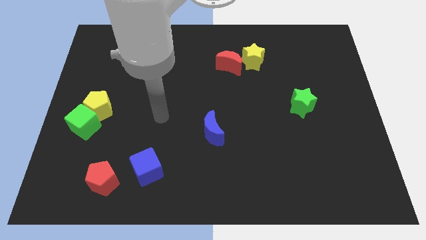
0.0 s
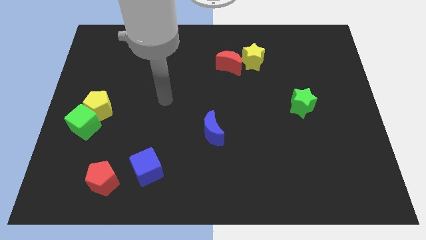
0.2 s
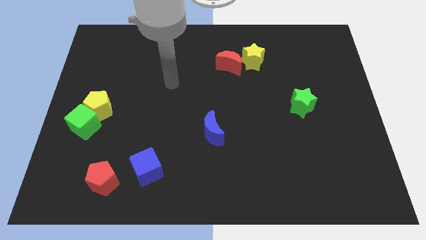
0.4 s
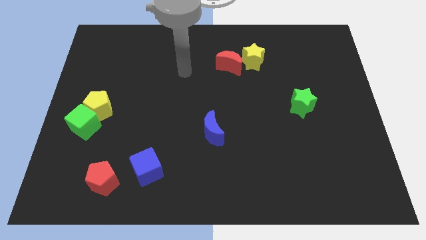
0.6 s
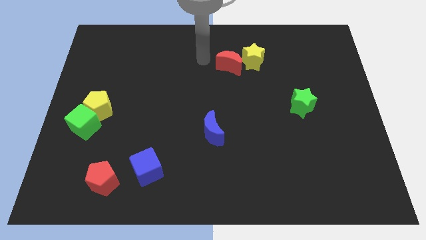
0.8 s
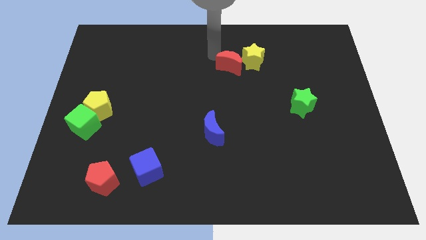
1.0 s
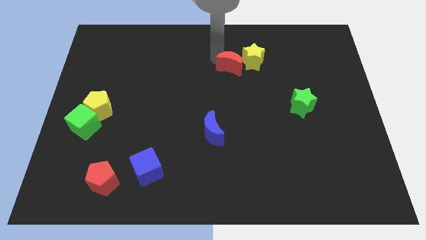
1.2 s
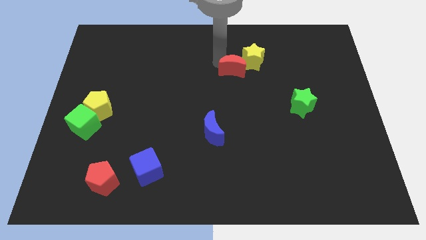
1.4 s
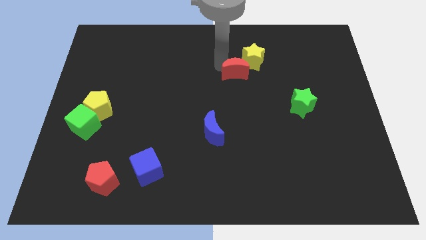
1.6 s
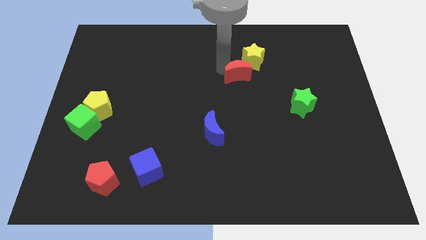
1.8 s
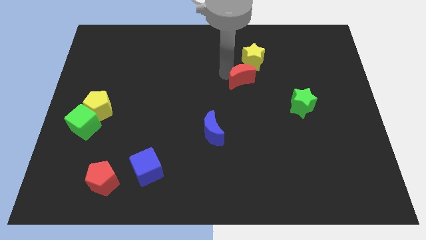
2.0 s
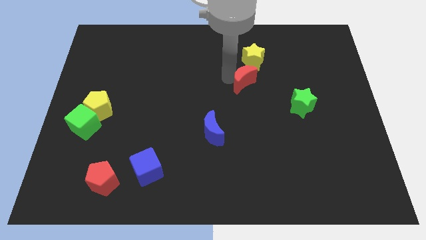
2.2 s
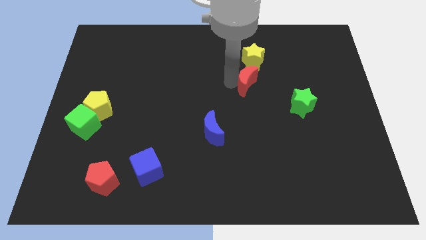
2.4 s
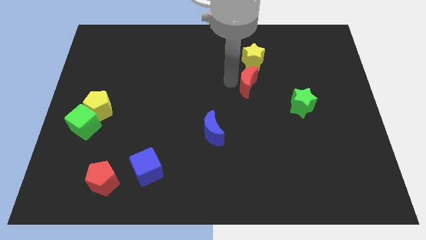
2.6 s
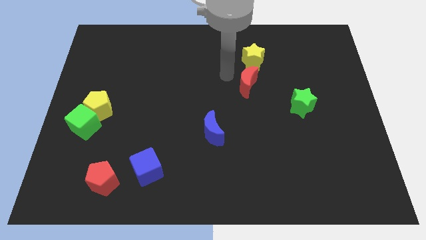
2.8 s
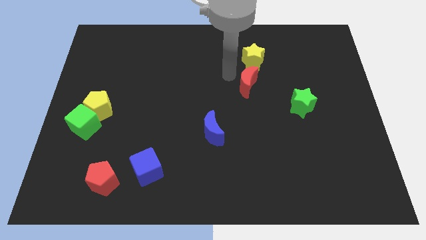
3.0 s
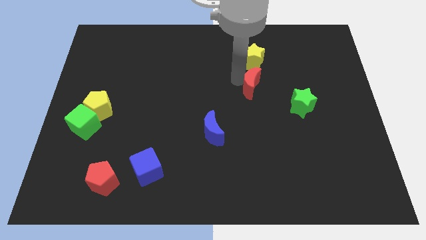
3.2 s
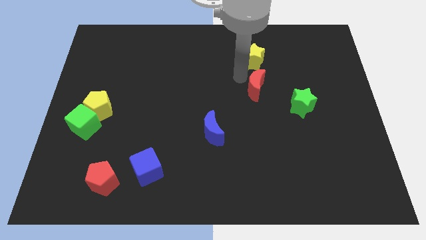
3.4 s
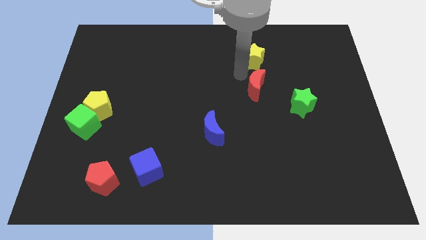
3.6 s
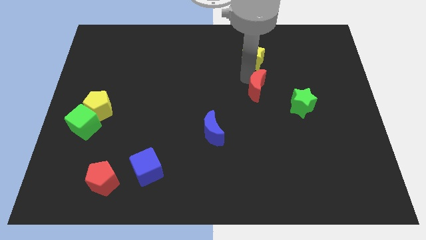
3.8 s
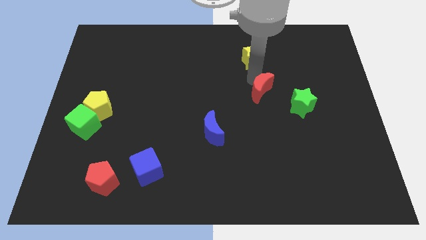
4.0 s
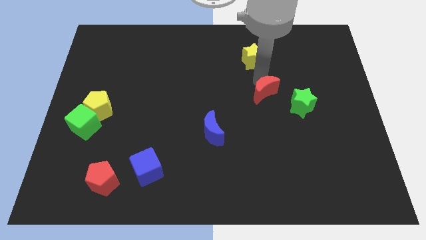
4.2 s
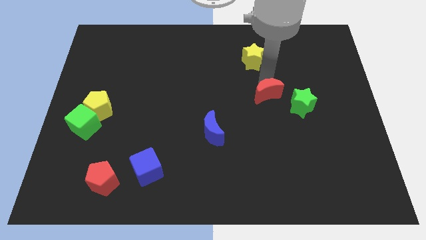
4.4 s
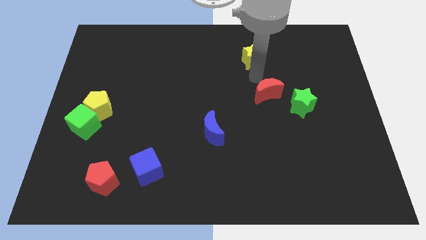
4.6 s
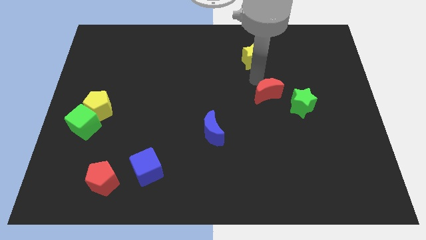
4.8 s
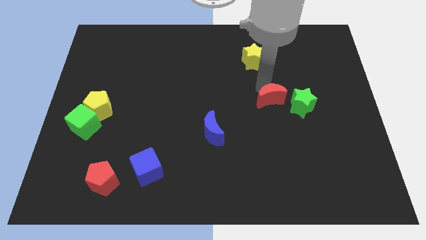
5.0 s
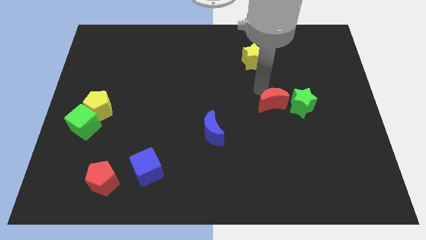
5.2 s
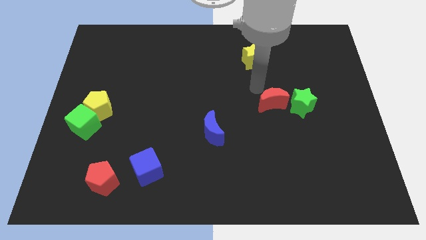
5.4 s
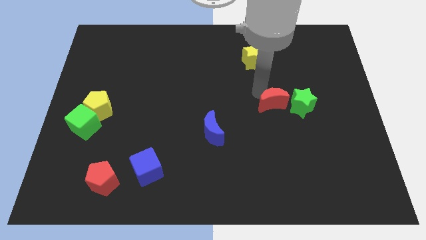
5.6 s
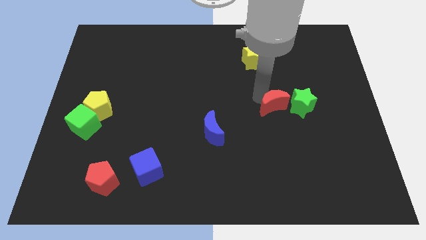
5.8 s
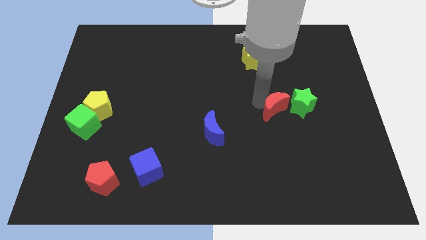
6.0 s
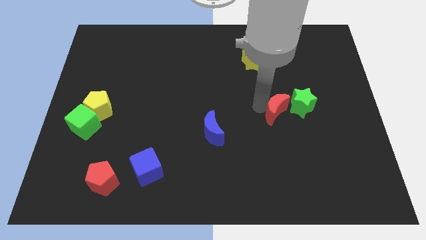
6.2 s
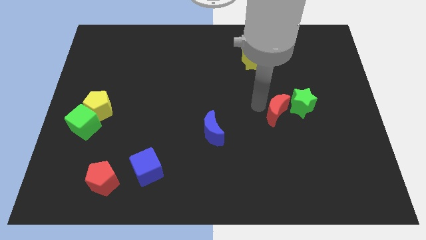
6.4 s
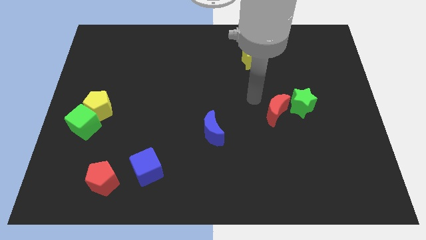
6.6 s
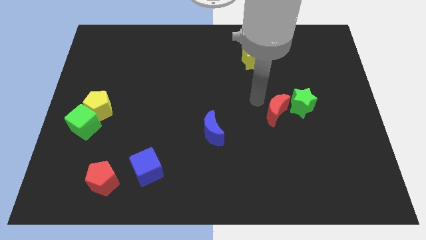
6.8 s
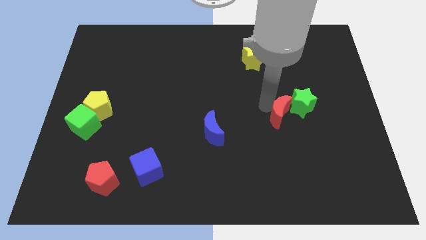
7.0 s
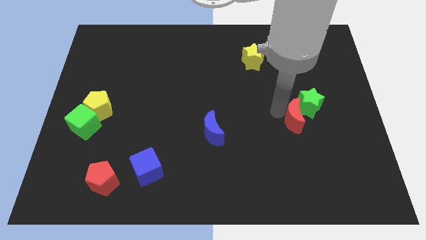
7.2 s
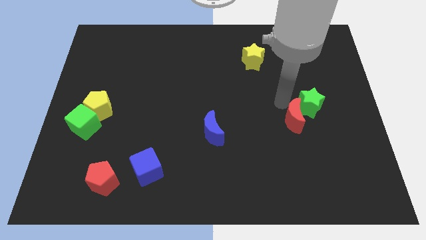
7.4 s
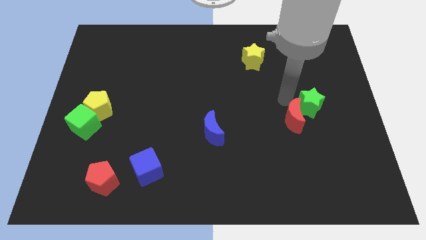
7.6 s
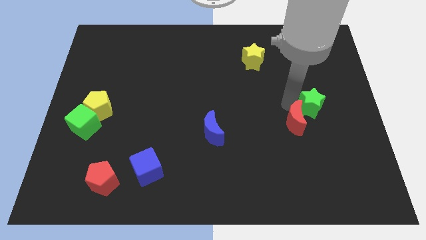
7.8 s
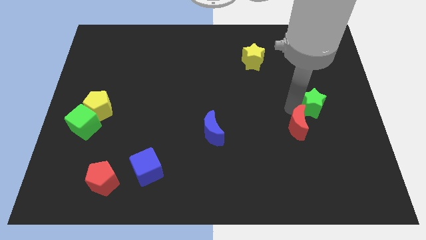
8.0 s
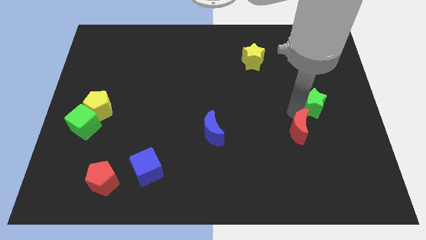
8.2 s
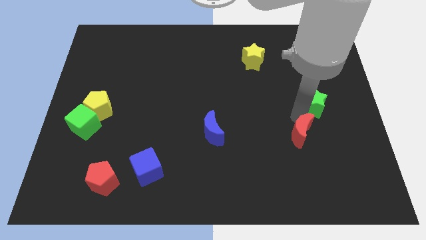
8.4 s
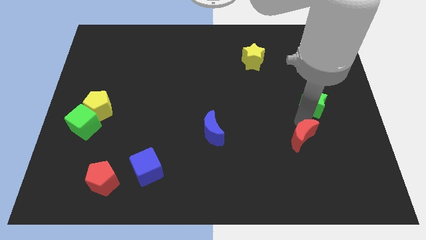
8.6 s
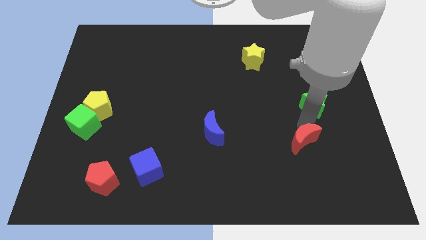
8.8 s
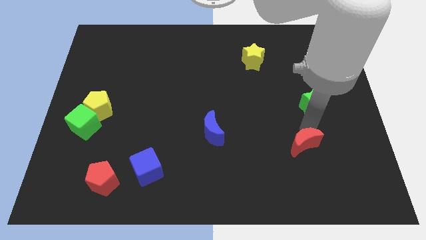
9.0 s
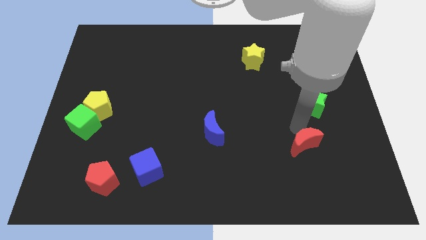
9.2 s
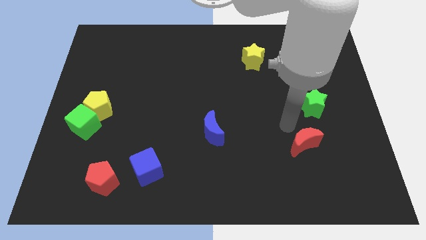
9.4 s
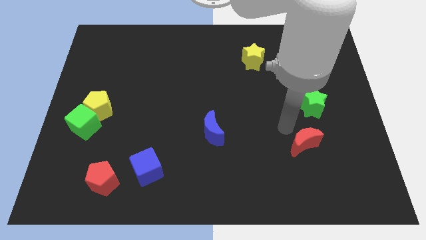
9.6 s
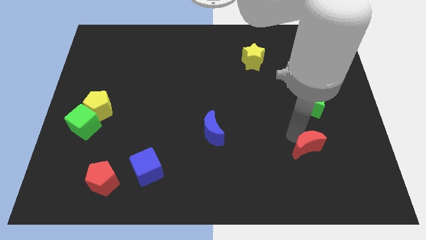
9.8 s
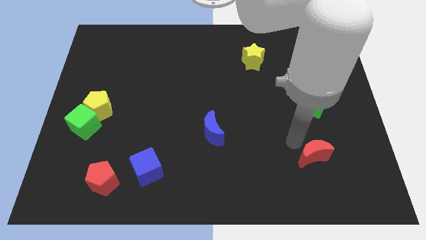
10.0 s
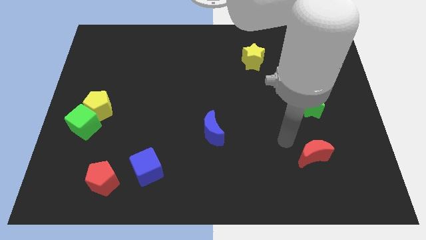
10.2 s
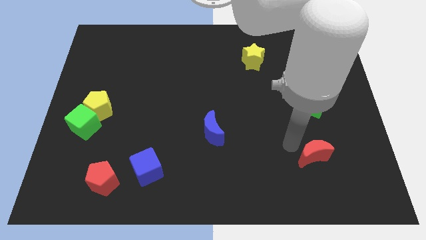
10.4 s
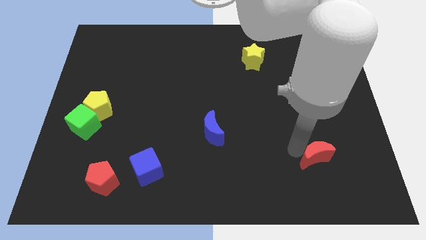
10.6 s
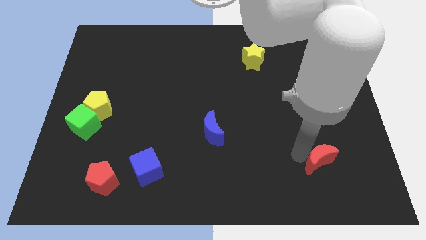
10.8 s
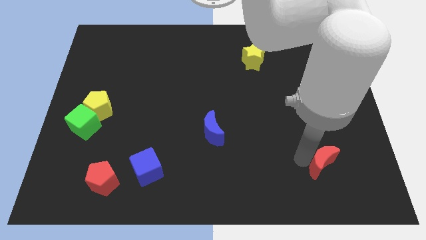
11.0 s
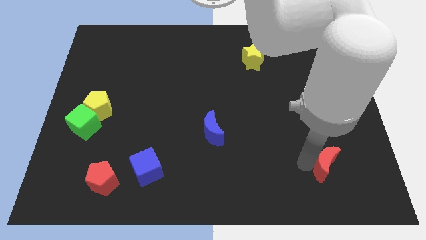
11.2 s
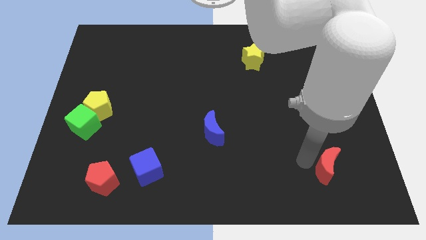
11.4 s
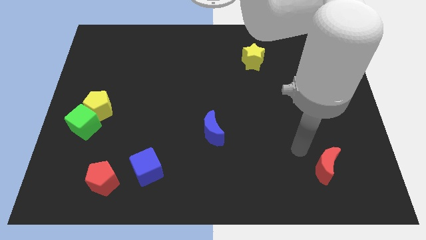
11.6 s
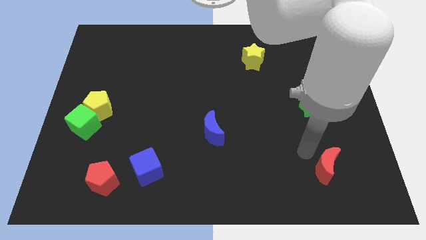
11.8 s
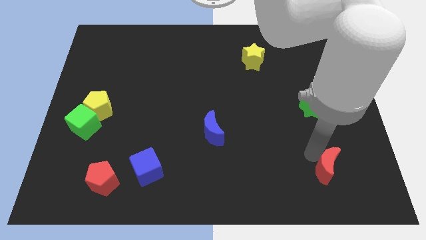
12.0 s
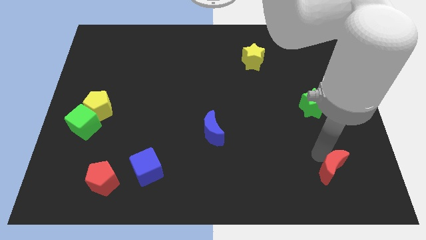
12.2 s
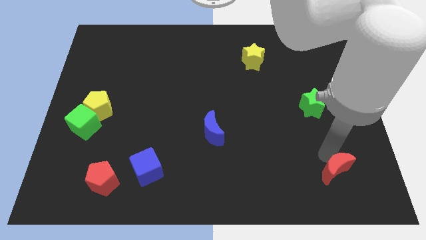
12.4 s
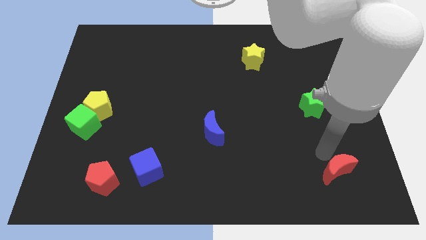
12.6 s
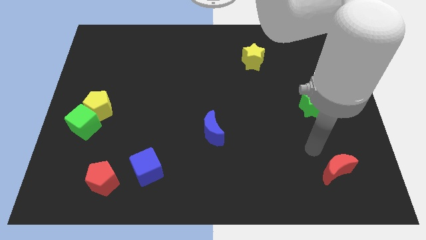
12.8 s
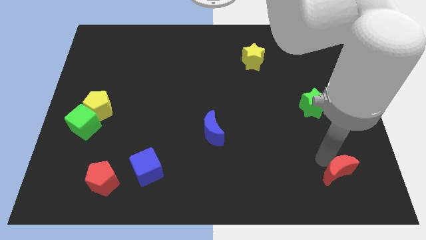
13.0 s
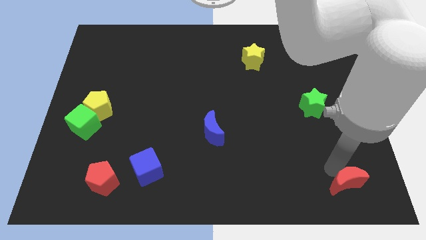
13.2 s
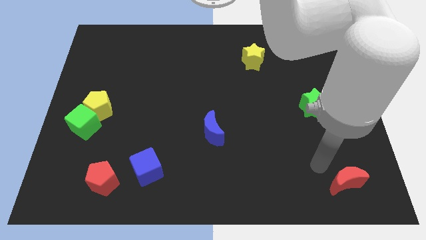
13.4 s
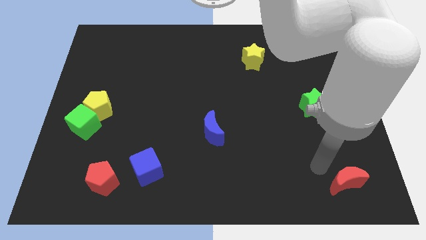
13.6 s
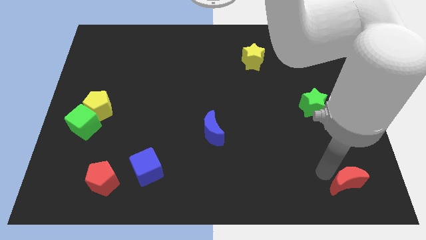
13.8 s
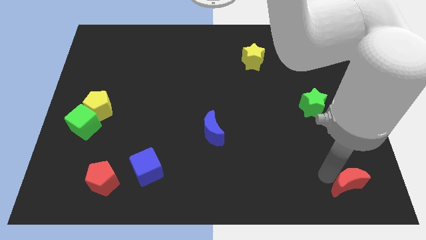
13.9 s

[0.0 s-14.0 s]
push the red moon to the lower right corner
